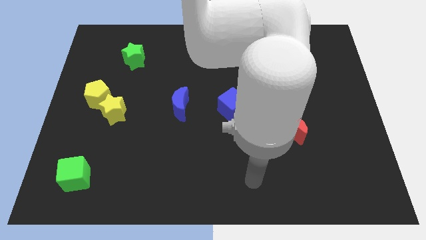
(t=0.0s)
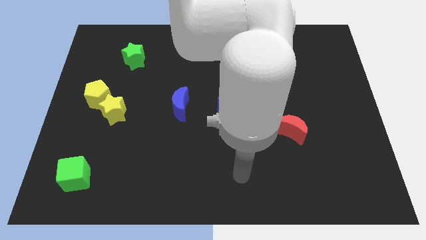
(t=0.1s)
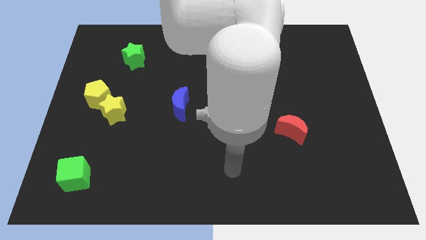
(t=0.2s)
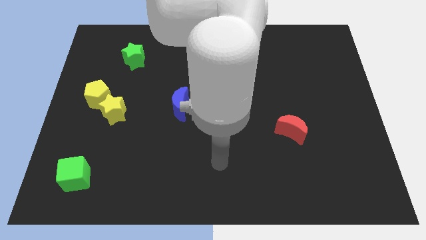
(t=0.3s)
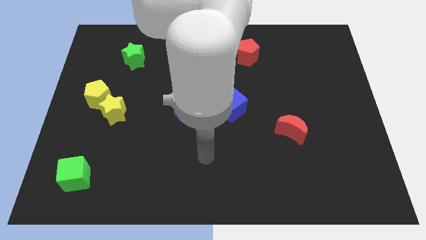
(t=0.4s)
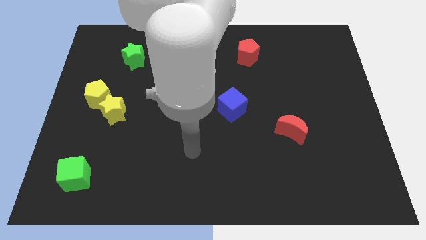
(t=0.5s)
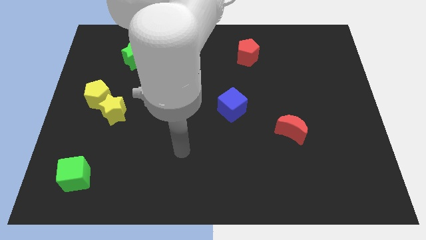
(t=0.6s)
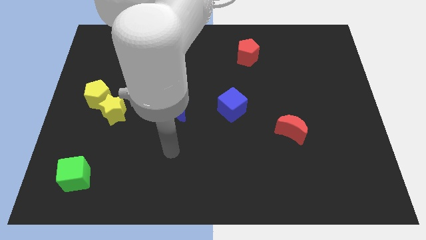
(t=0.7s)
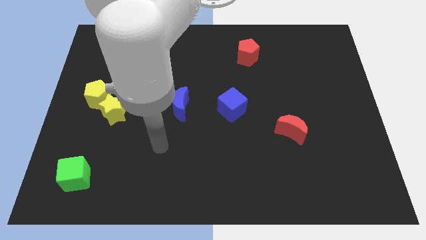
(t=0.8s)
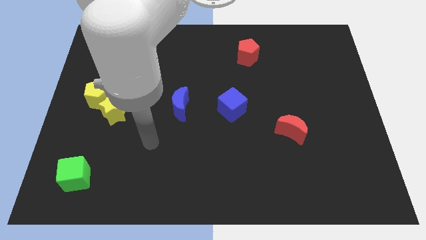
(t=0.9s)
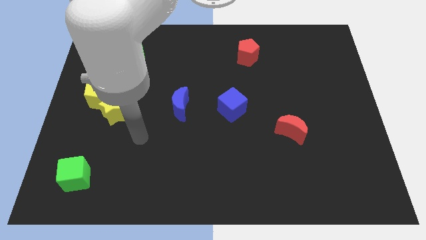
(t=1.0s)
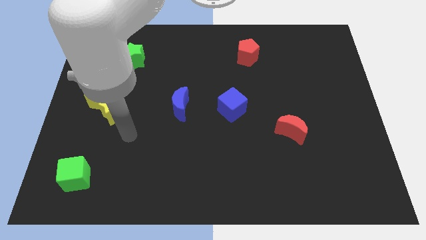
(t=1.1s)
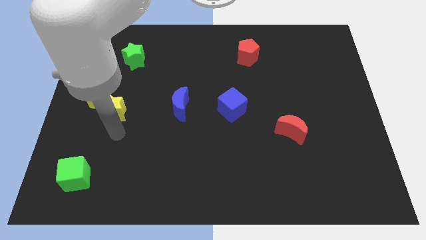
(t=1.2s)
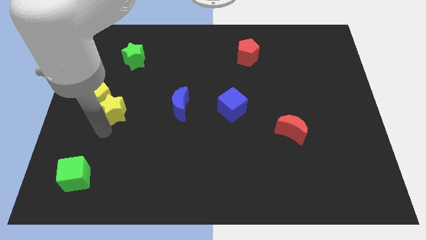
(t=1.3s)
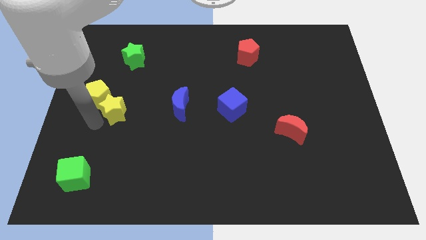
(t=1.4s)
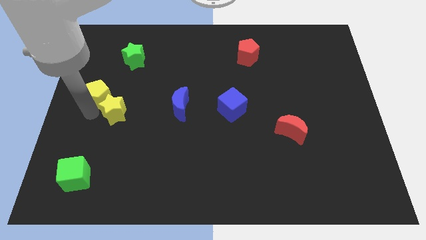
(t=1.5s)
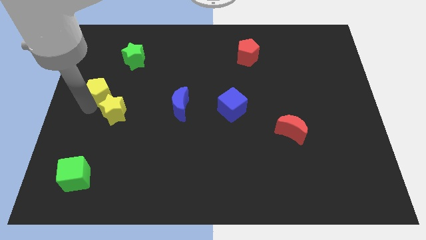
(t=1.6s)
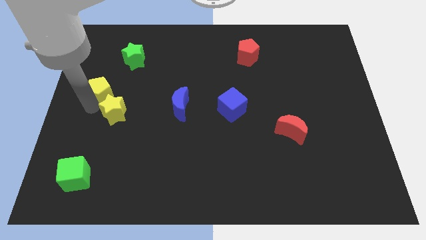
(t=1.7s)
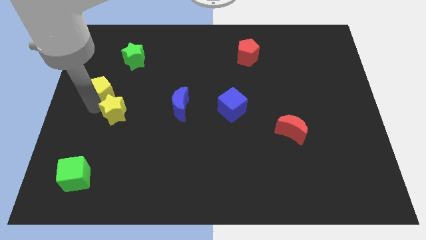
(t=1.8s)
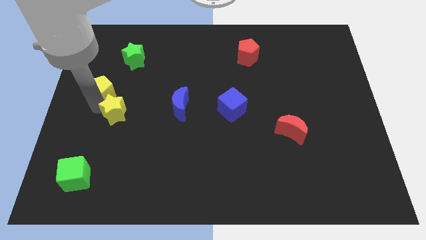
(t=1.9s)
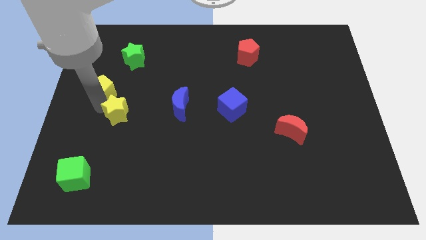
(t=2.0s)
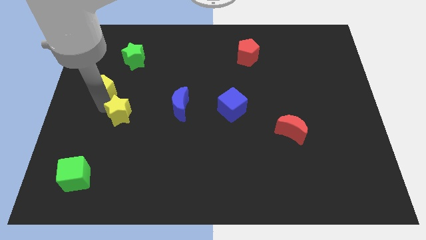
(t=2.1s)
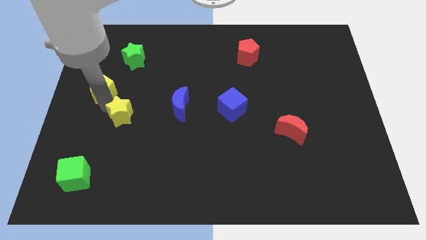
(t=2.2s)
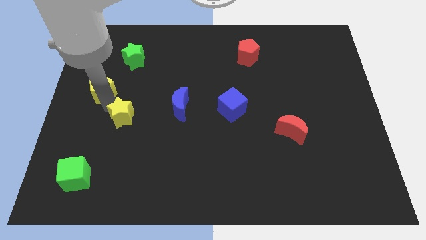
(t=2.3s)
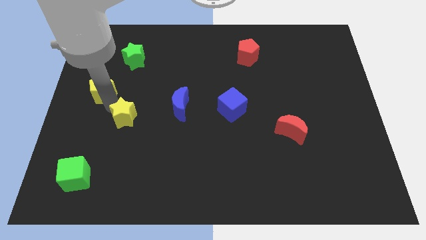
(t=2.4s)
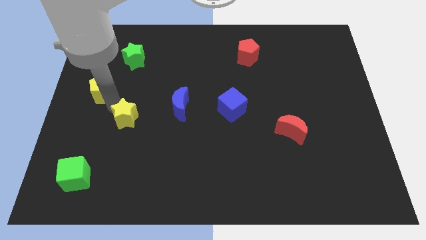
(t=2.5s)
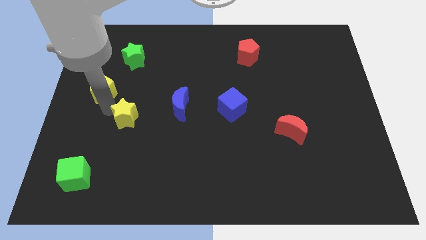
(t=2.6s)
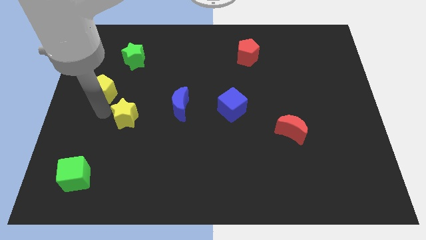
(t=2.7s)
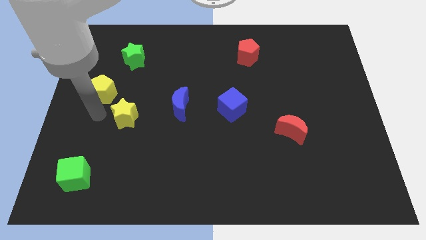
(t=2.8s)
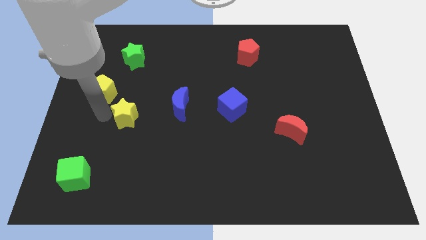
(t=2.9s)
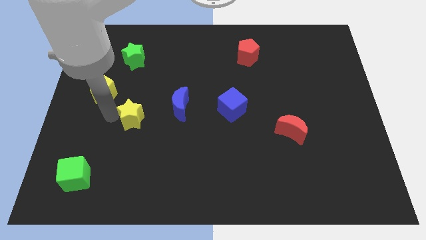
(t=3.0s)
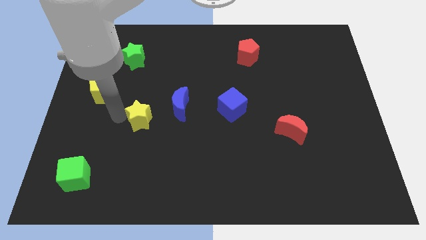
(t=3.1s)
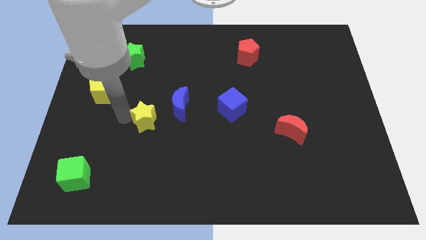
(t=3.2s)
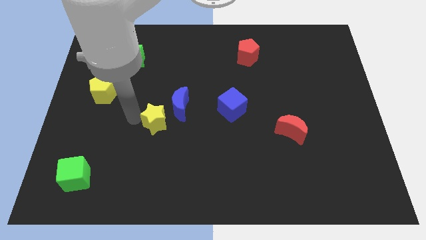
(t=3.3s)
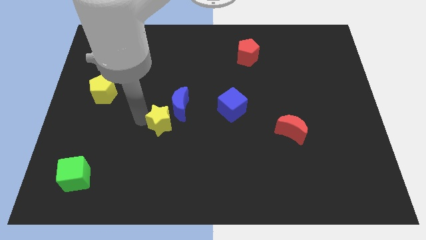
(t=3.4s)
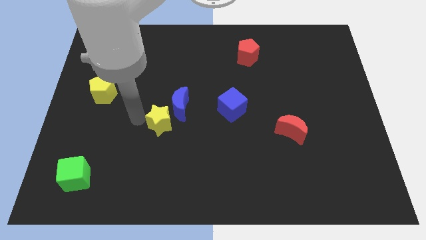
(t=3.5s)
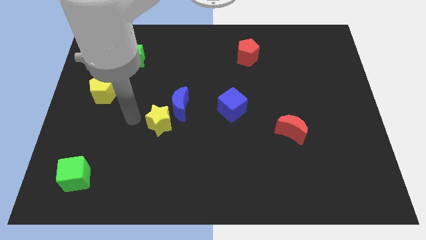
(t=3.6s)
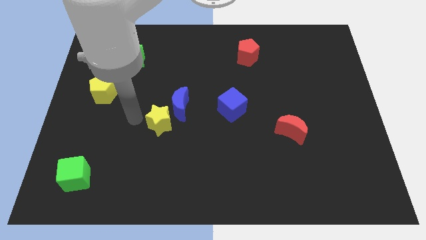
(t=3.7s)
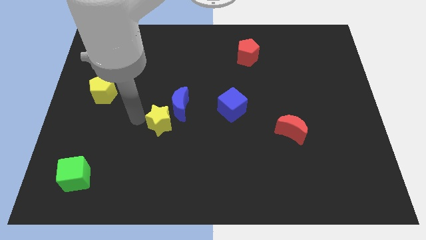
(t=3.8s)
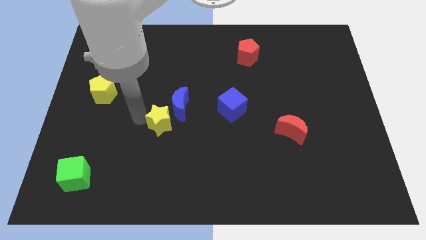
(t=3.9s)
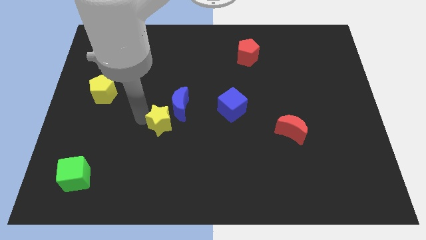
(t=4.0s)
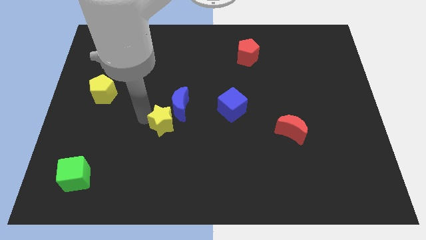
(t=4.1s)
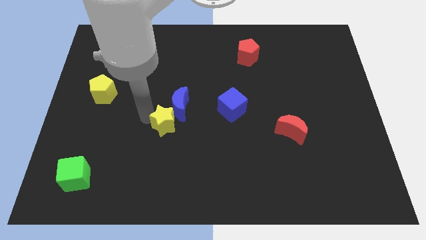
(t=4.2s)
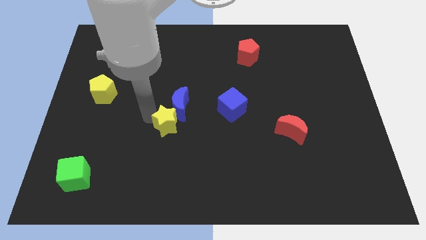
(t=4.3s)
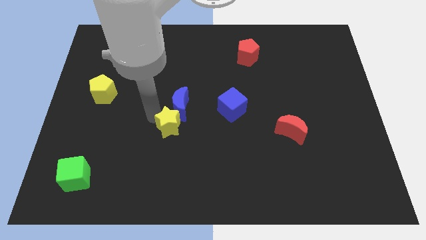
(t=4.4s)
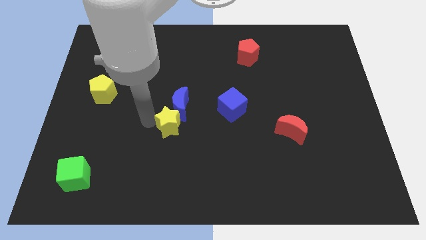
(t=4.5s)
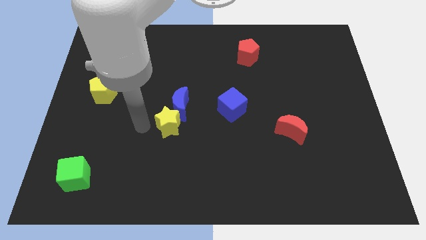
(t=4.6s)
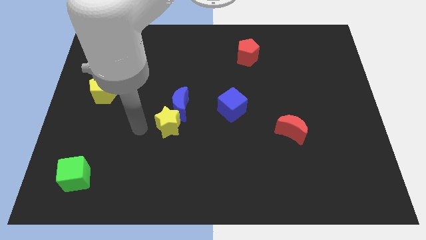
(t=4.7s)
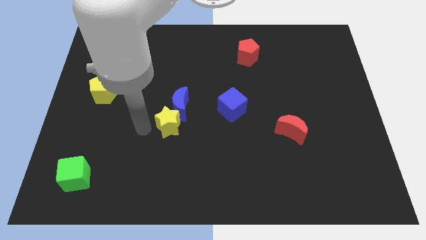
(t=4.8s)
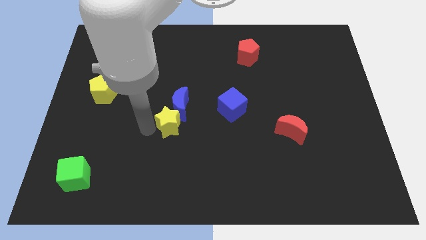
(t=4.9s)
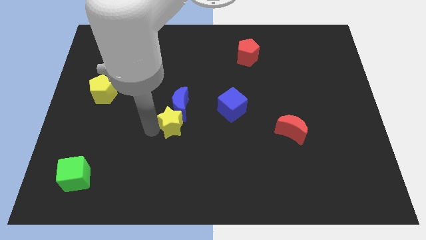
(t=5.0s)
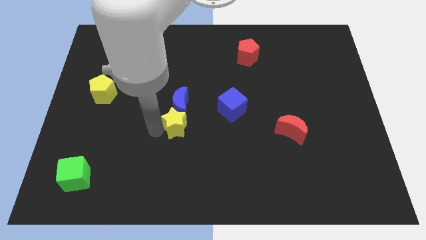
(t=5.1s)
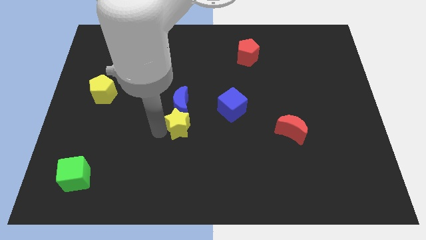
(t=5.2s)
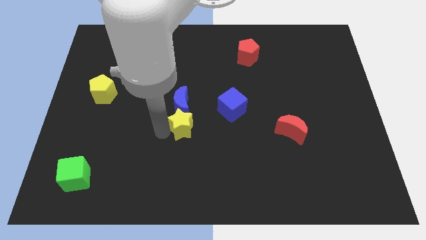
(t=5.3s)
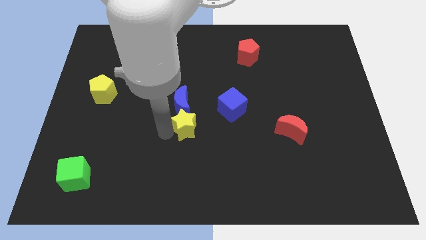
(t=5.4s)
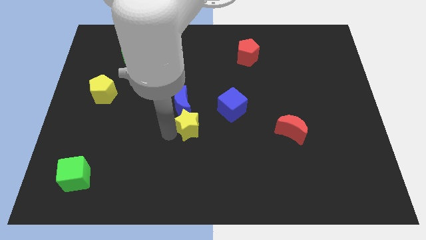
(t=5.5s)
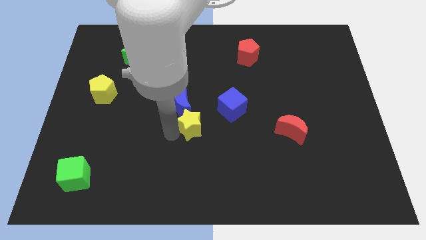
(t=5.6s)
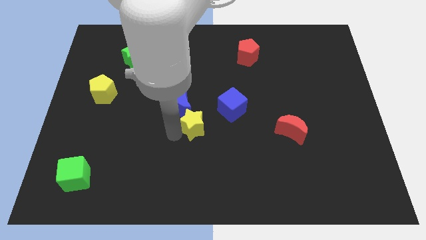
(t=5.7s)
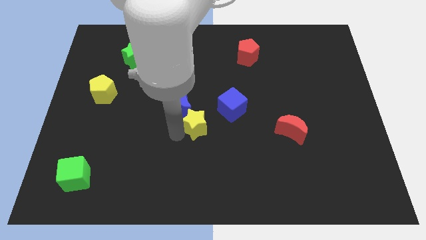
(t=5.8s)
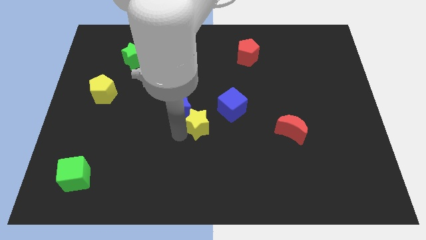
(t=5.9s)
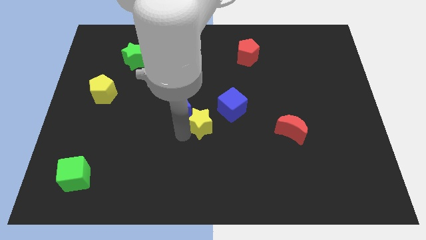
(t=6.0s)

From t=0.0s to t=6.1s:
push the yellow star right

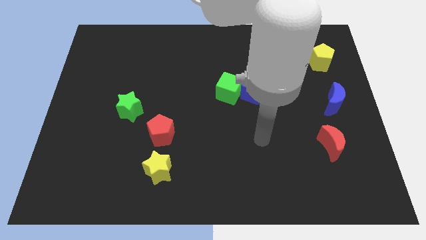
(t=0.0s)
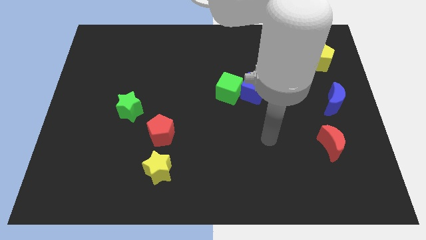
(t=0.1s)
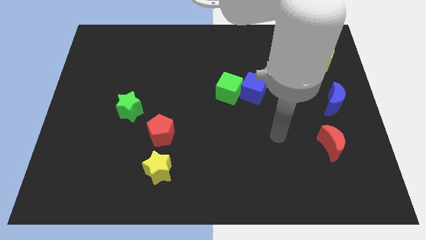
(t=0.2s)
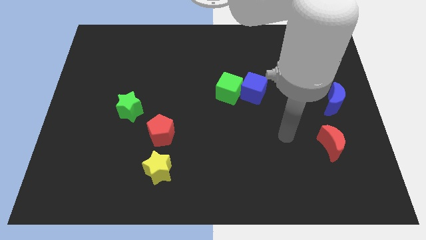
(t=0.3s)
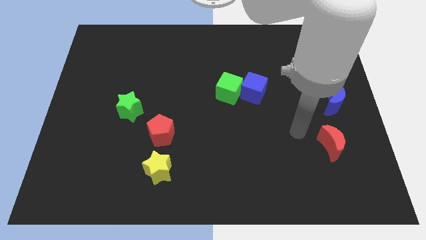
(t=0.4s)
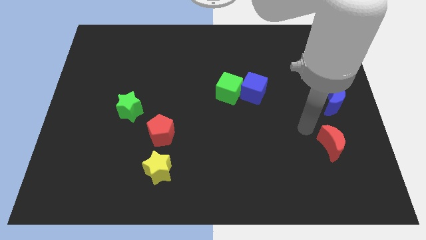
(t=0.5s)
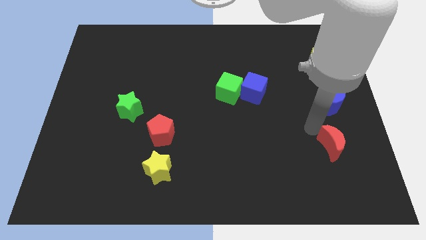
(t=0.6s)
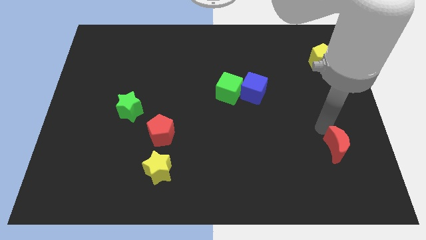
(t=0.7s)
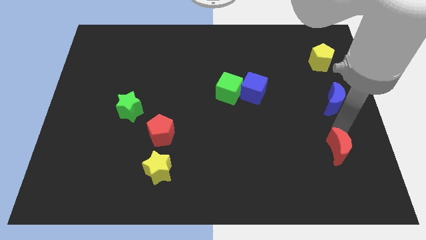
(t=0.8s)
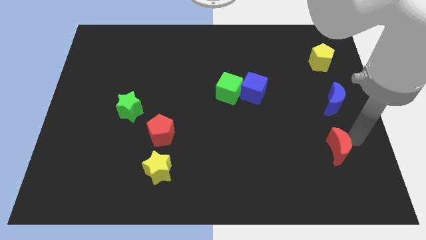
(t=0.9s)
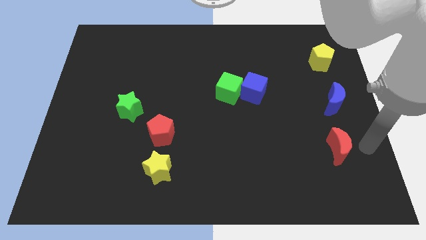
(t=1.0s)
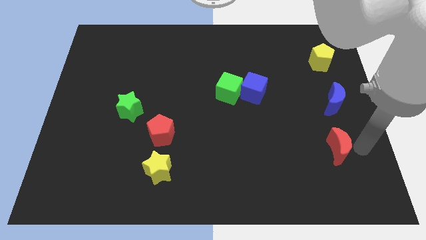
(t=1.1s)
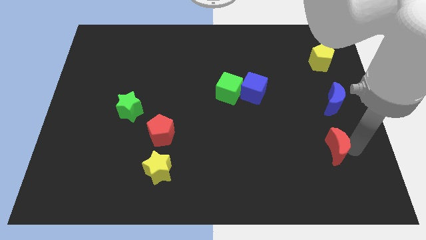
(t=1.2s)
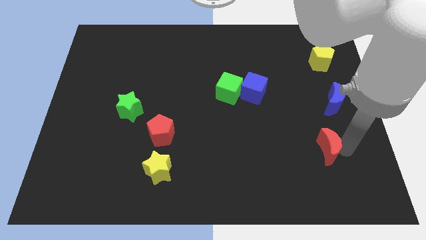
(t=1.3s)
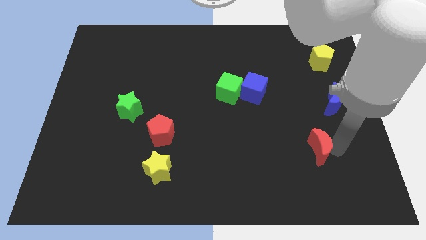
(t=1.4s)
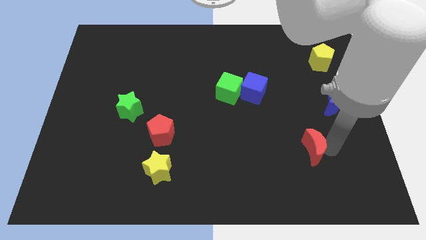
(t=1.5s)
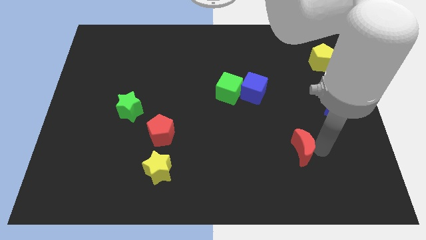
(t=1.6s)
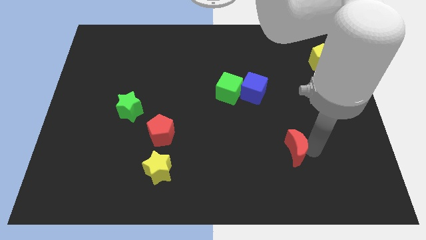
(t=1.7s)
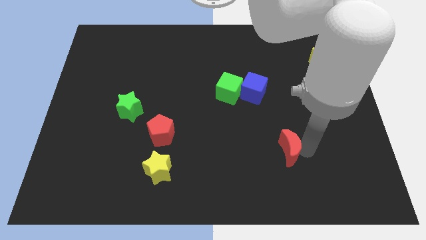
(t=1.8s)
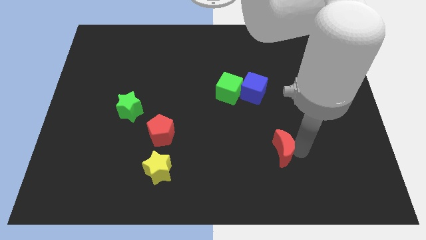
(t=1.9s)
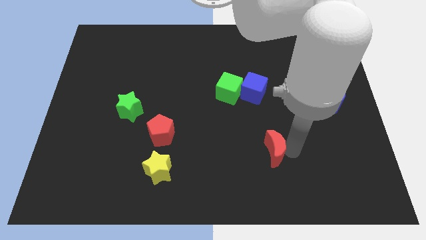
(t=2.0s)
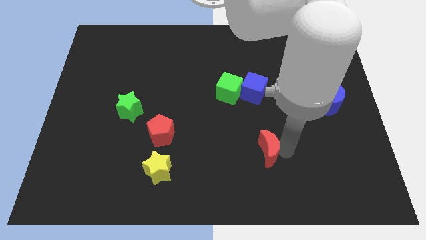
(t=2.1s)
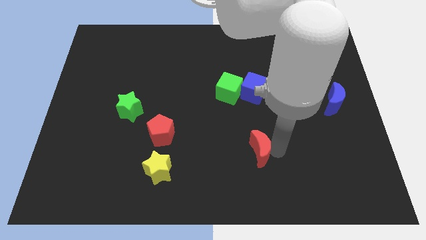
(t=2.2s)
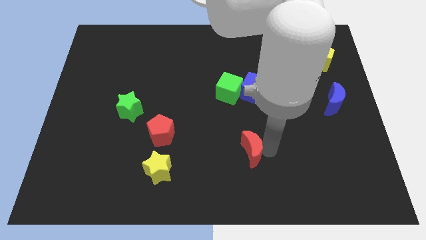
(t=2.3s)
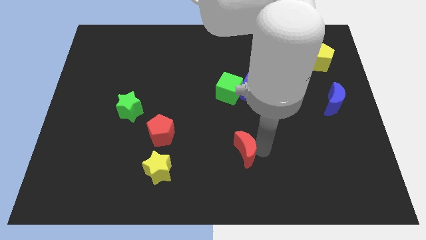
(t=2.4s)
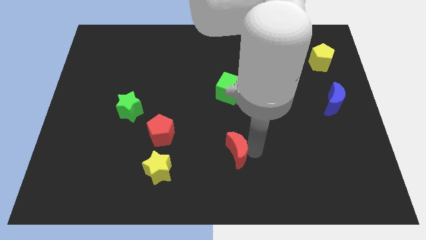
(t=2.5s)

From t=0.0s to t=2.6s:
push the red moon to the left
